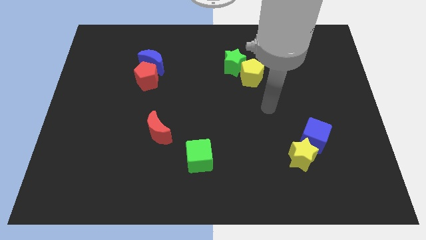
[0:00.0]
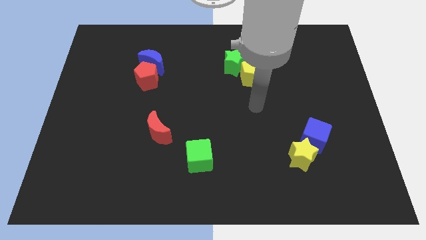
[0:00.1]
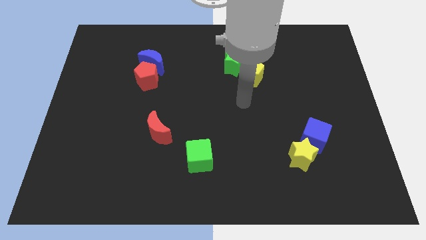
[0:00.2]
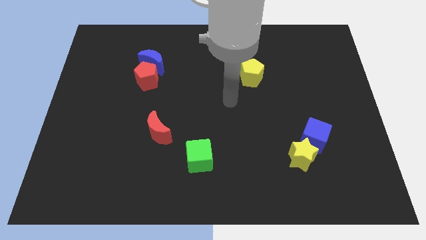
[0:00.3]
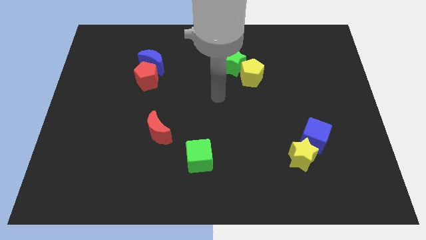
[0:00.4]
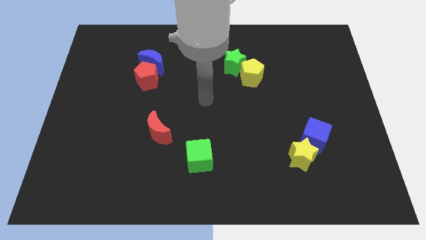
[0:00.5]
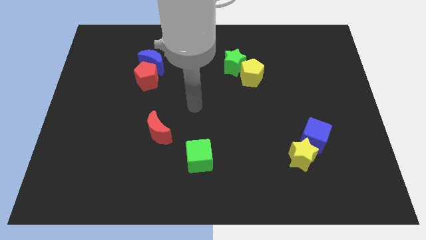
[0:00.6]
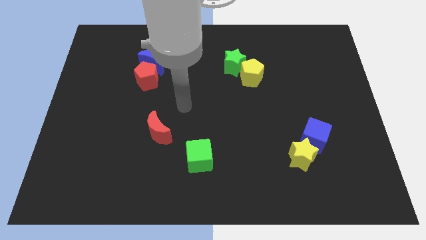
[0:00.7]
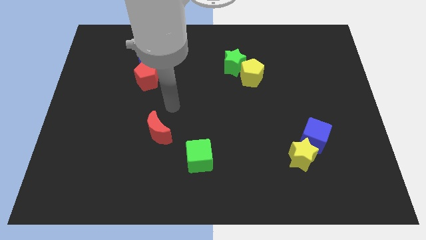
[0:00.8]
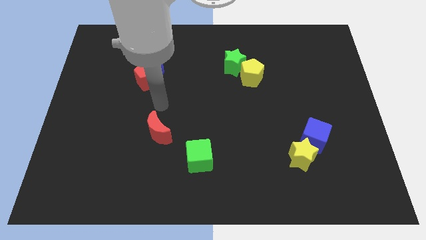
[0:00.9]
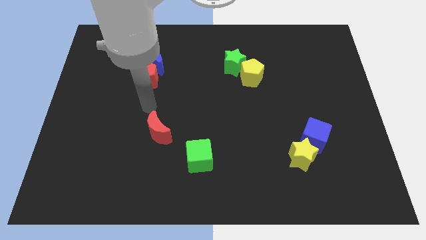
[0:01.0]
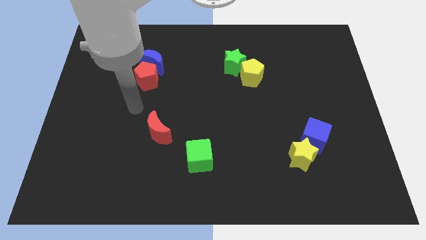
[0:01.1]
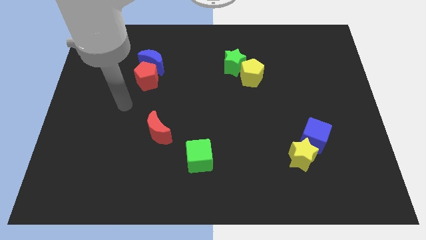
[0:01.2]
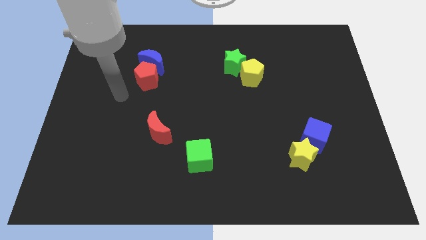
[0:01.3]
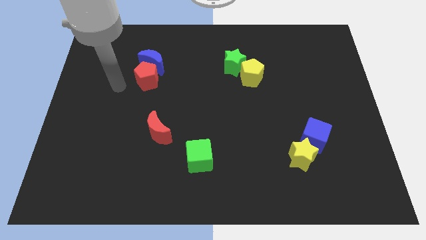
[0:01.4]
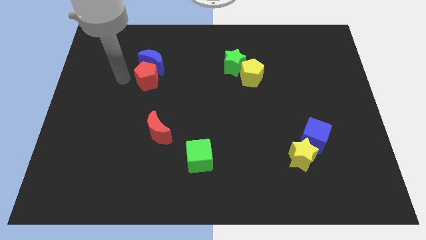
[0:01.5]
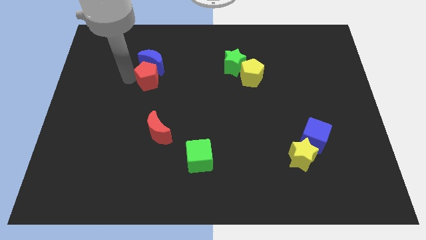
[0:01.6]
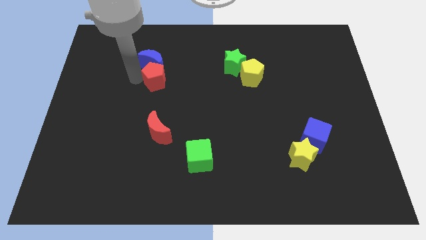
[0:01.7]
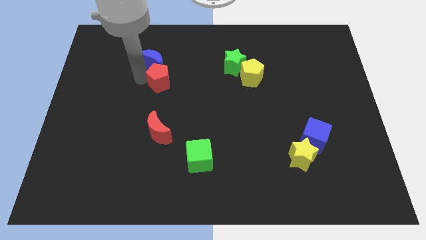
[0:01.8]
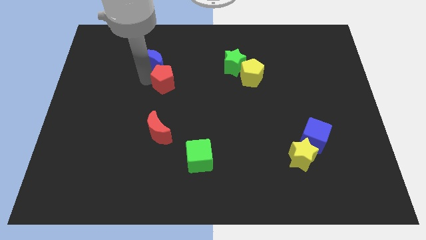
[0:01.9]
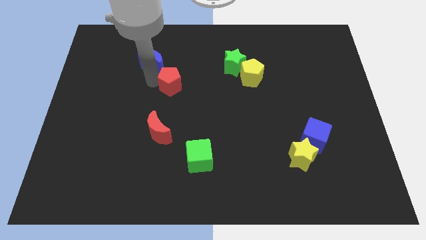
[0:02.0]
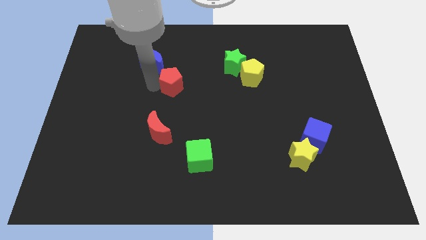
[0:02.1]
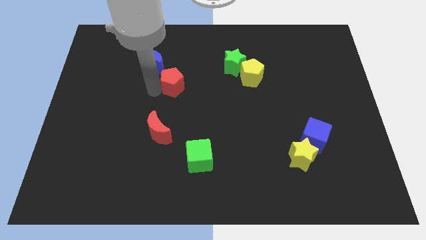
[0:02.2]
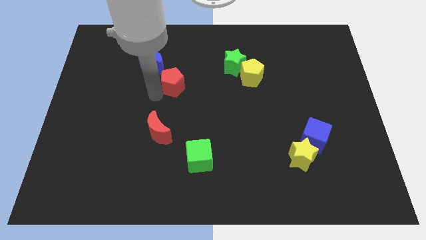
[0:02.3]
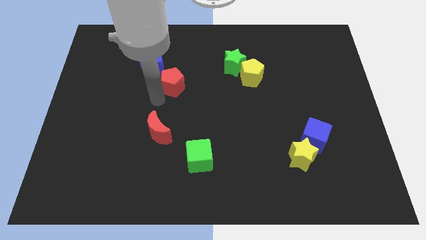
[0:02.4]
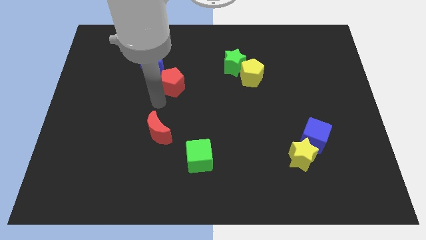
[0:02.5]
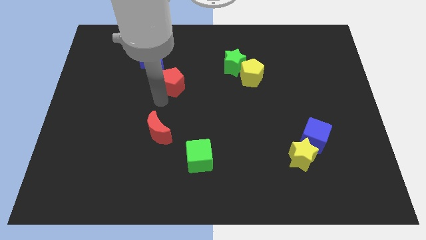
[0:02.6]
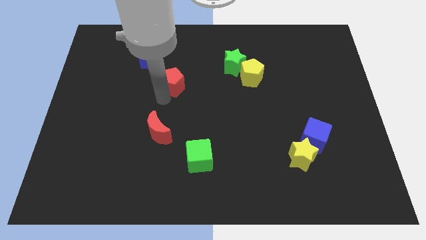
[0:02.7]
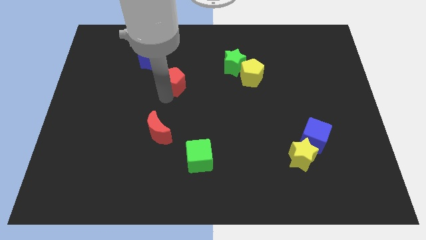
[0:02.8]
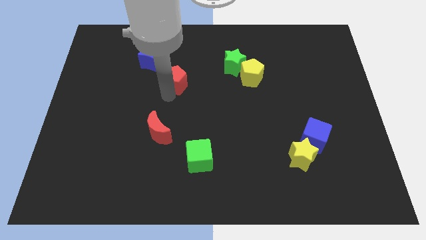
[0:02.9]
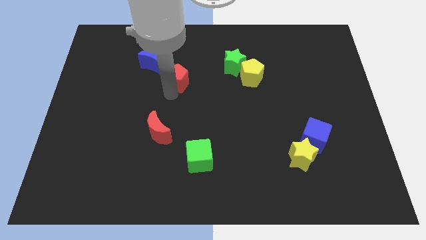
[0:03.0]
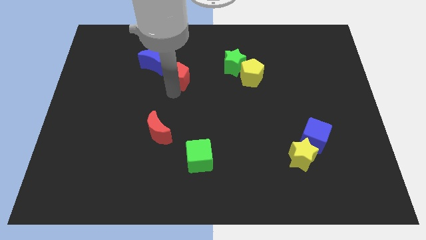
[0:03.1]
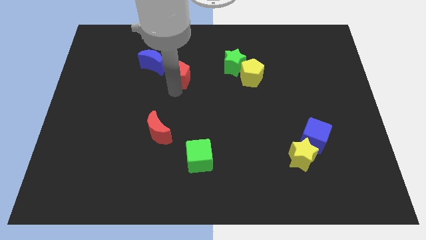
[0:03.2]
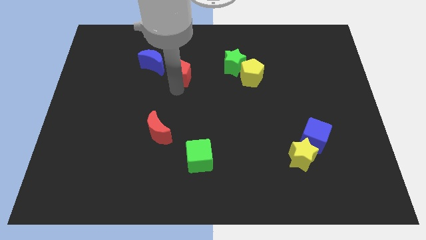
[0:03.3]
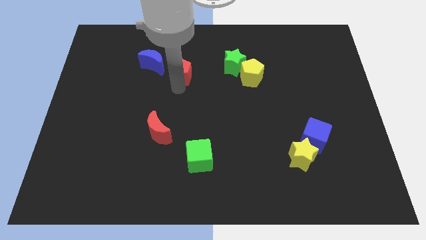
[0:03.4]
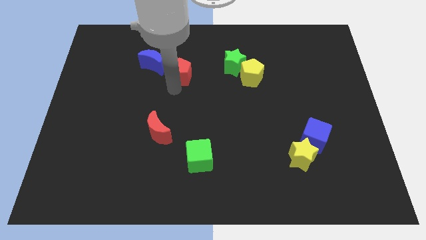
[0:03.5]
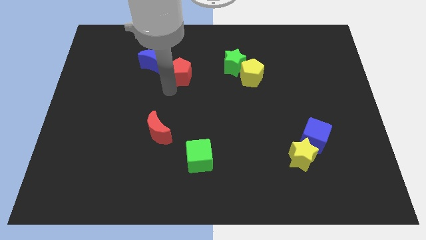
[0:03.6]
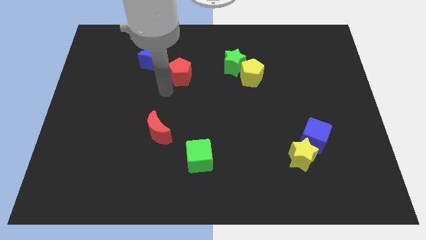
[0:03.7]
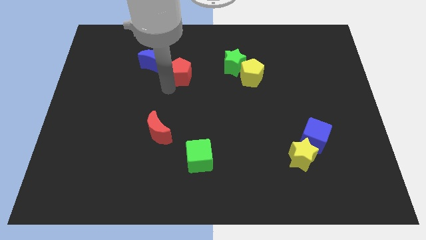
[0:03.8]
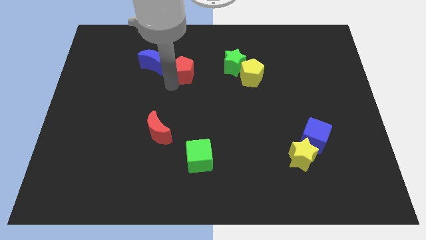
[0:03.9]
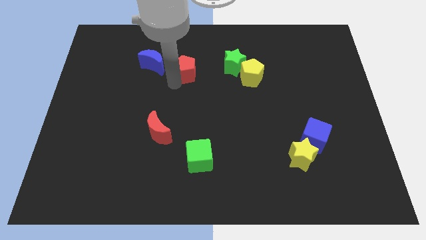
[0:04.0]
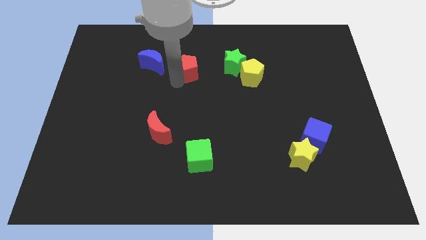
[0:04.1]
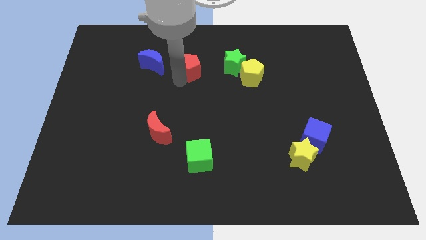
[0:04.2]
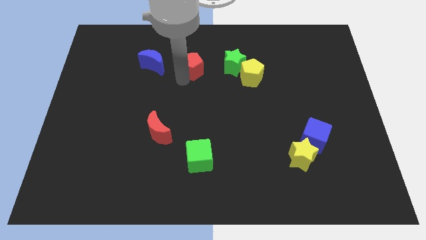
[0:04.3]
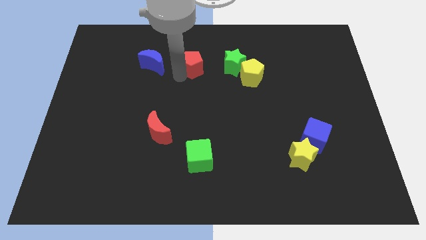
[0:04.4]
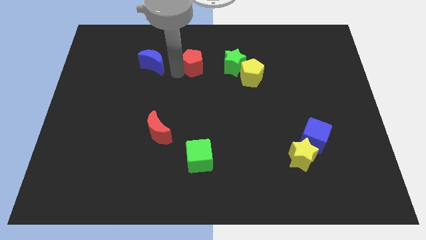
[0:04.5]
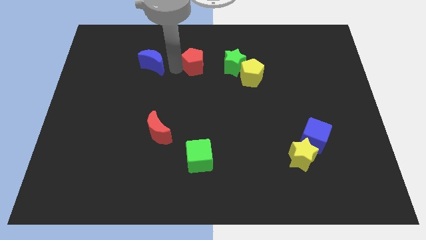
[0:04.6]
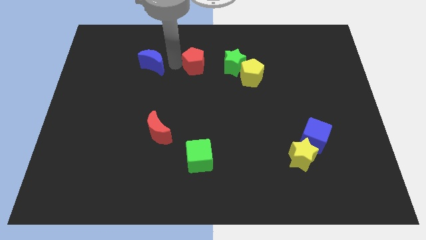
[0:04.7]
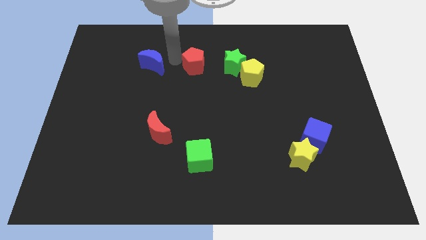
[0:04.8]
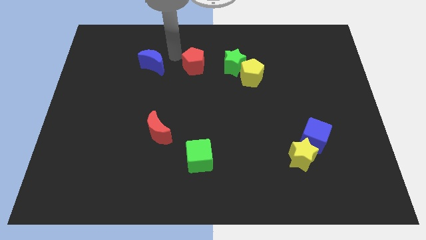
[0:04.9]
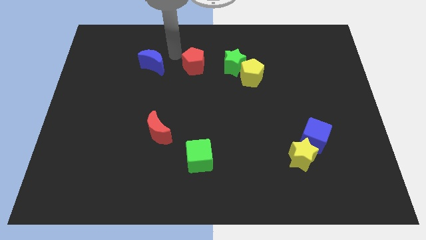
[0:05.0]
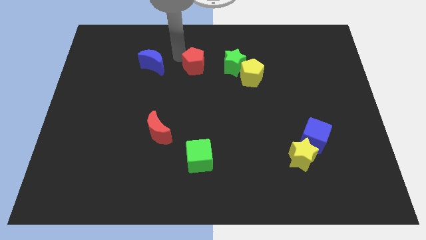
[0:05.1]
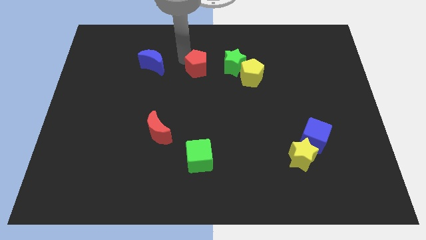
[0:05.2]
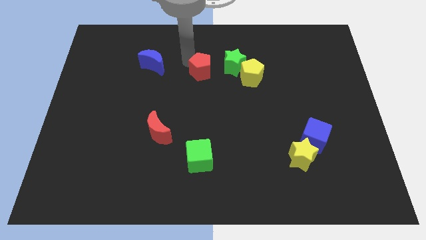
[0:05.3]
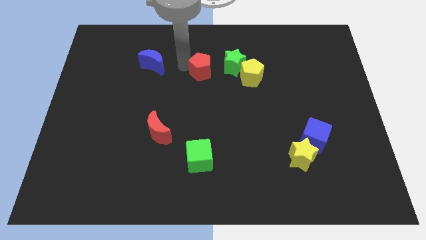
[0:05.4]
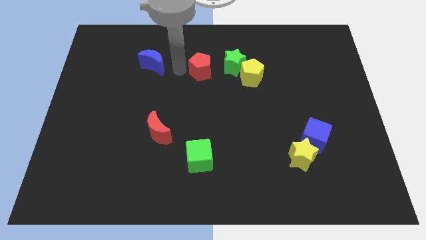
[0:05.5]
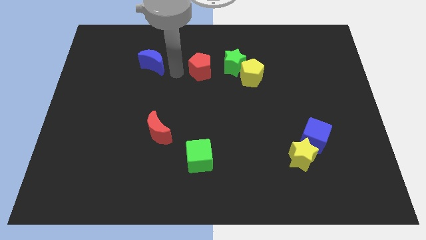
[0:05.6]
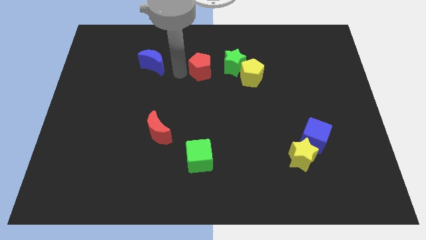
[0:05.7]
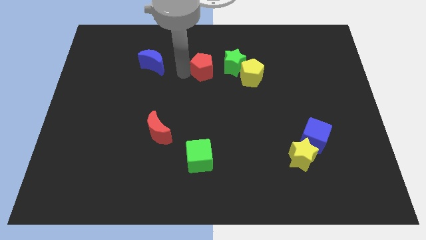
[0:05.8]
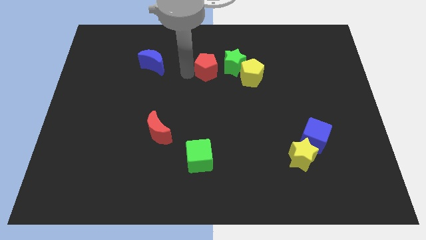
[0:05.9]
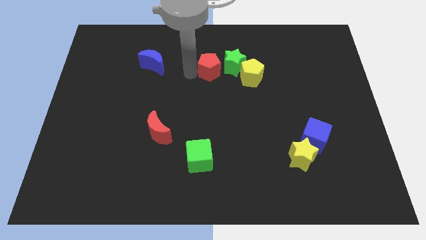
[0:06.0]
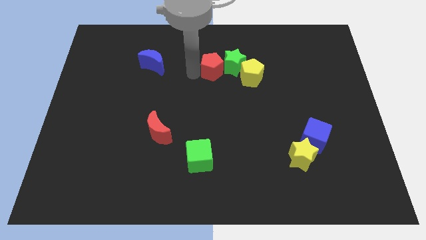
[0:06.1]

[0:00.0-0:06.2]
slide the red pentagon towards the green star

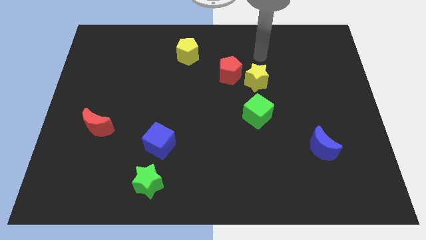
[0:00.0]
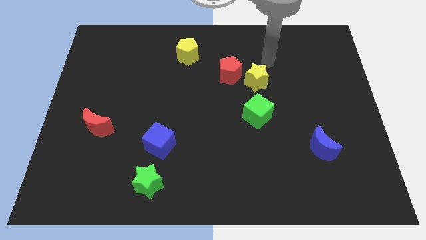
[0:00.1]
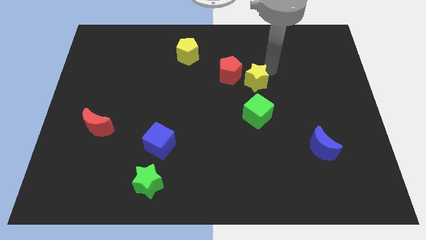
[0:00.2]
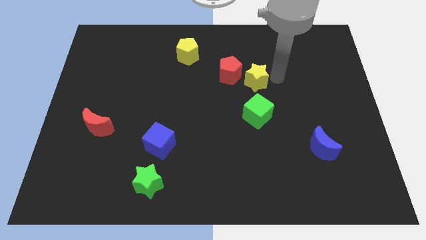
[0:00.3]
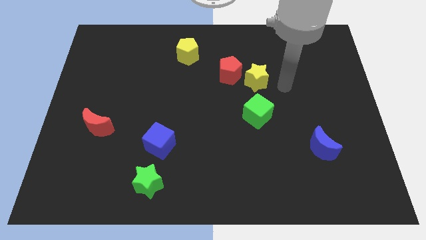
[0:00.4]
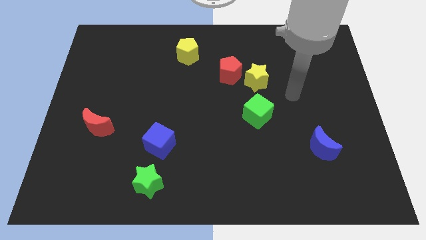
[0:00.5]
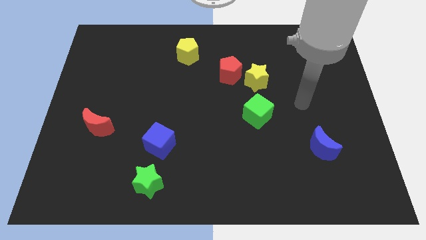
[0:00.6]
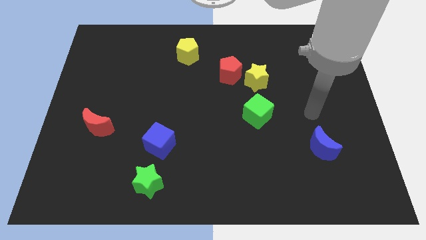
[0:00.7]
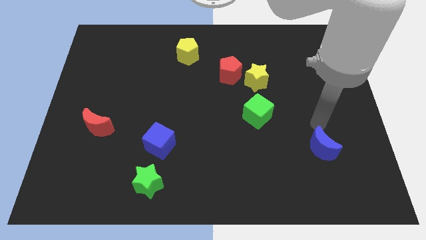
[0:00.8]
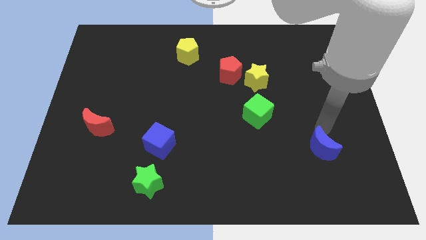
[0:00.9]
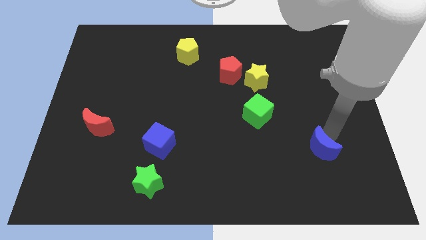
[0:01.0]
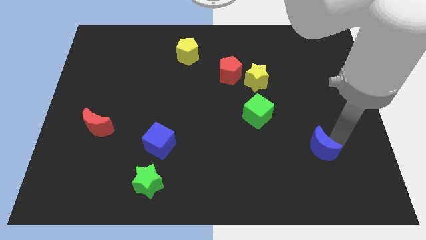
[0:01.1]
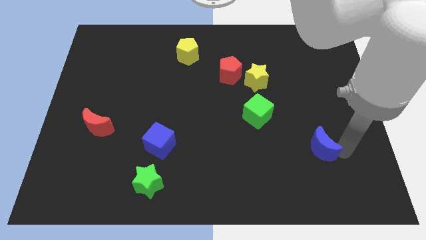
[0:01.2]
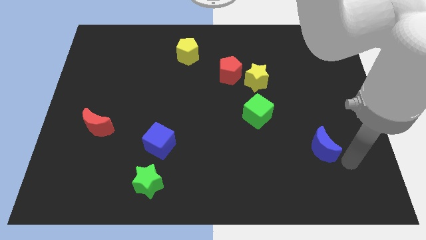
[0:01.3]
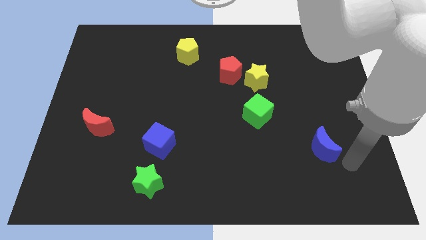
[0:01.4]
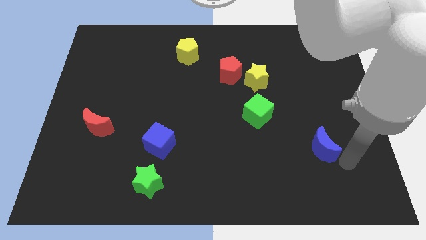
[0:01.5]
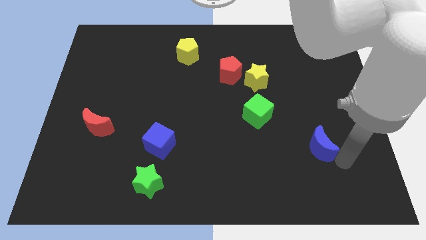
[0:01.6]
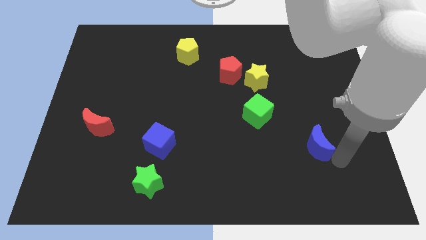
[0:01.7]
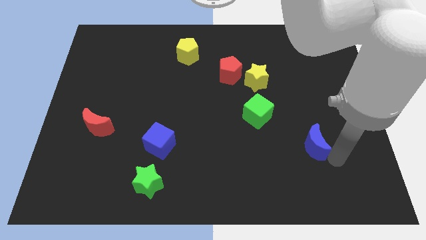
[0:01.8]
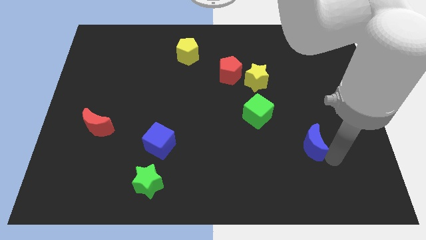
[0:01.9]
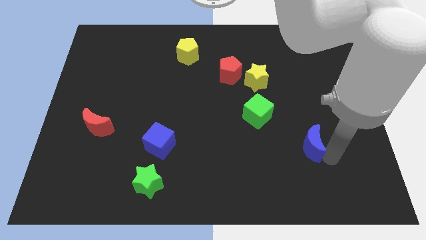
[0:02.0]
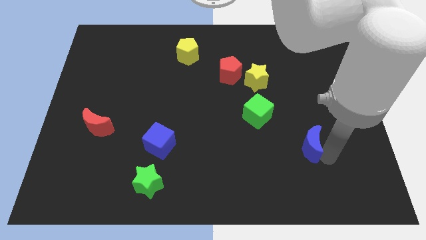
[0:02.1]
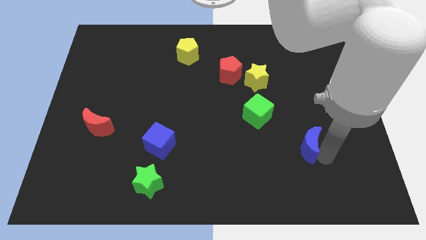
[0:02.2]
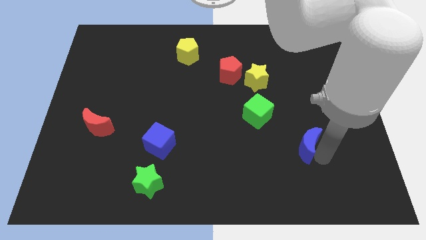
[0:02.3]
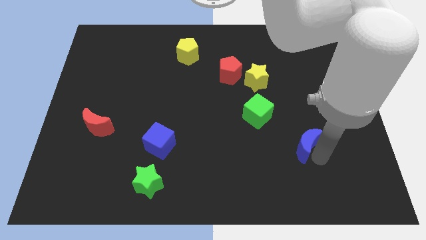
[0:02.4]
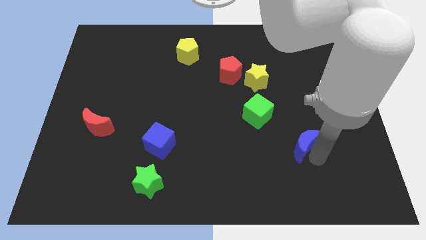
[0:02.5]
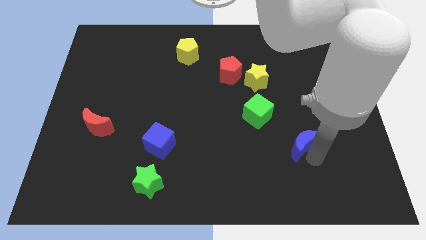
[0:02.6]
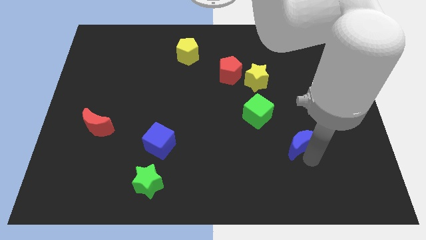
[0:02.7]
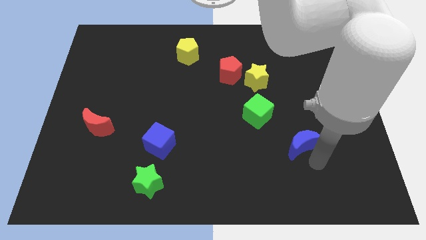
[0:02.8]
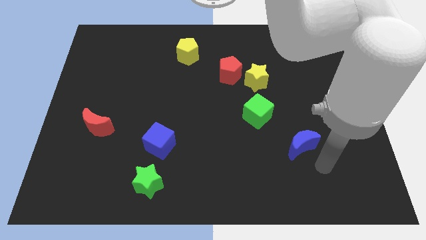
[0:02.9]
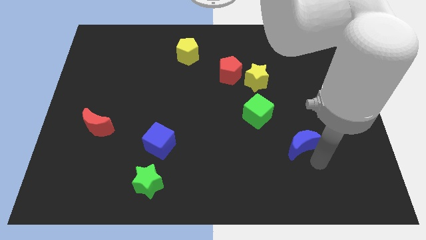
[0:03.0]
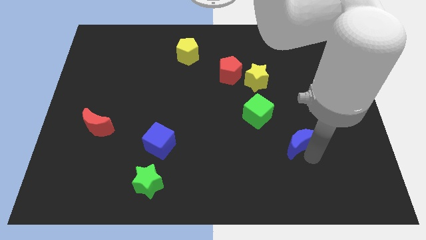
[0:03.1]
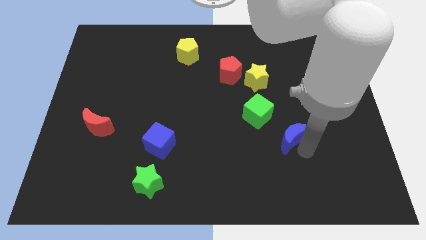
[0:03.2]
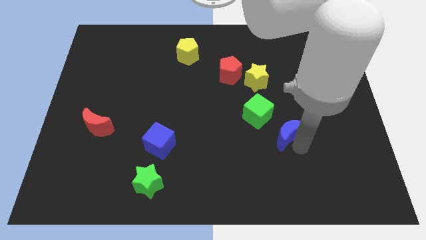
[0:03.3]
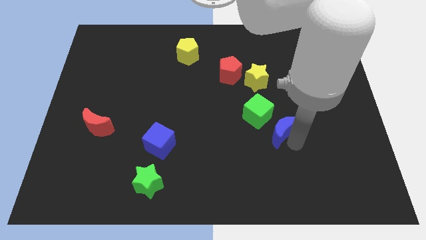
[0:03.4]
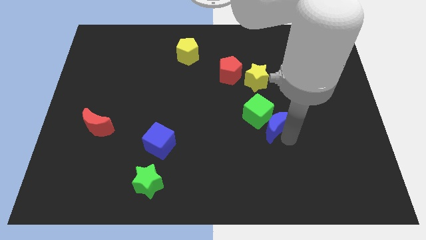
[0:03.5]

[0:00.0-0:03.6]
move the blue moon towards the green cube
